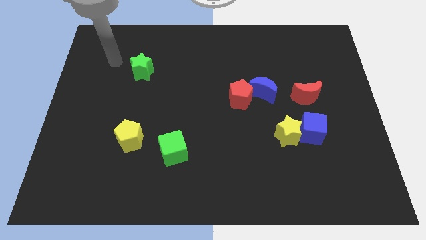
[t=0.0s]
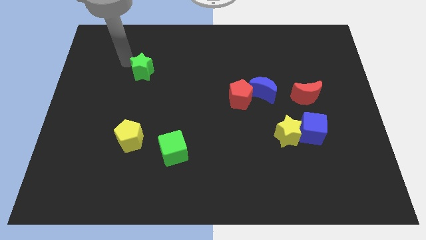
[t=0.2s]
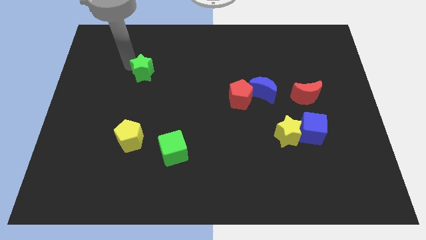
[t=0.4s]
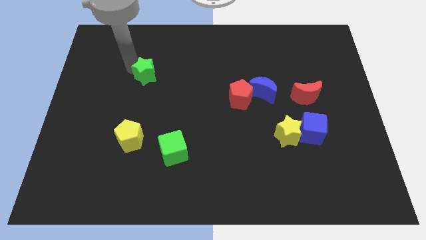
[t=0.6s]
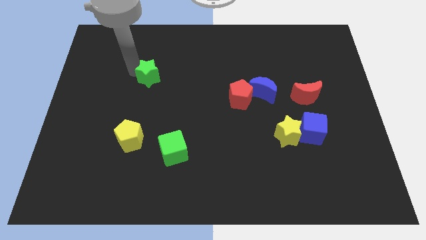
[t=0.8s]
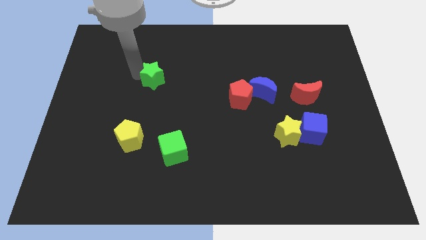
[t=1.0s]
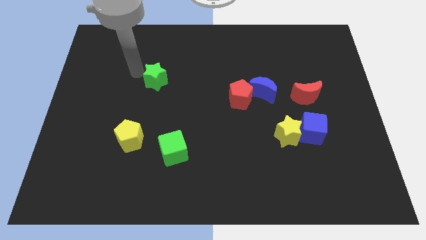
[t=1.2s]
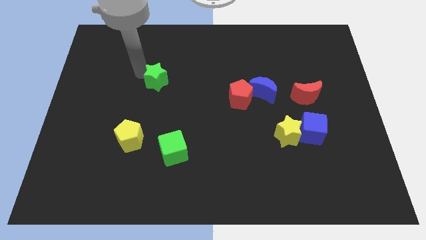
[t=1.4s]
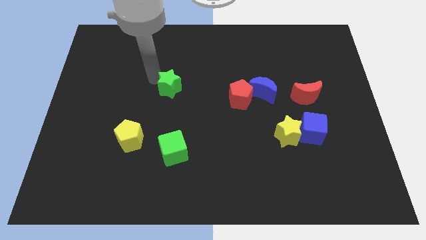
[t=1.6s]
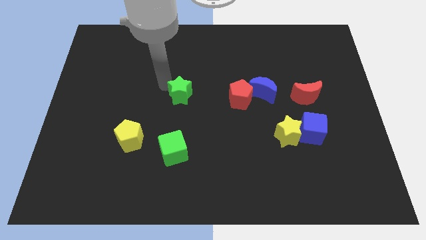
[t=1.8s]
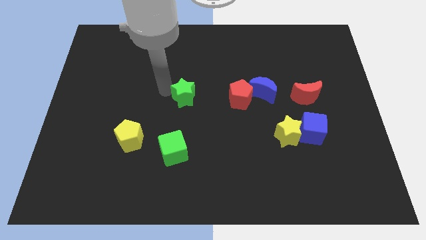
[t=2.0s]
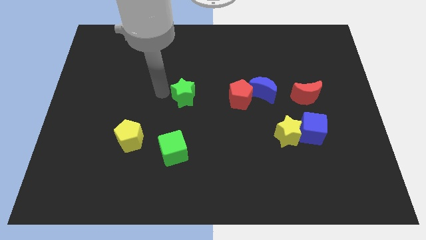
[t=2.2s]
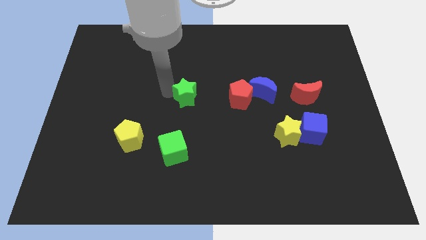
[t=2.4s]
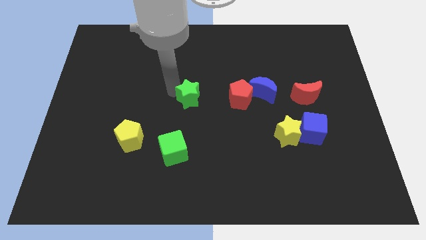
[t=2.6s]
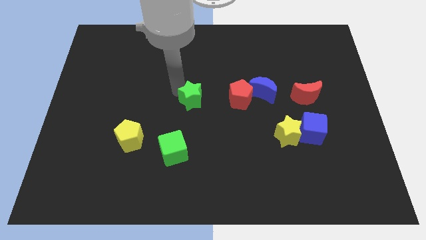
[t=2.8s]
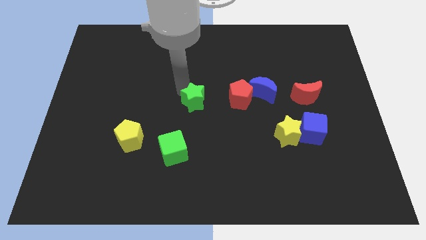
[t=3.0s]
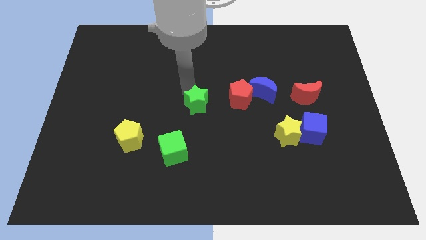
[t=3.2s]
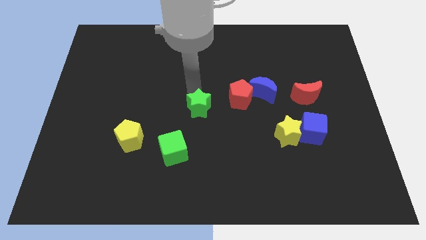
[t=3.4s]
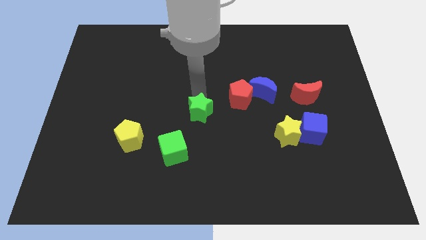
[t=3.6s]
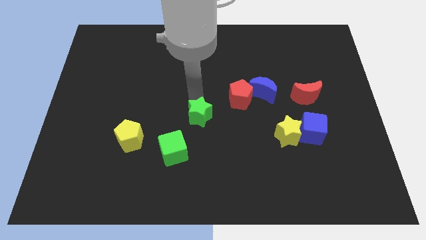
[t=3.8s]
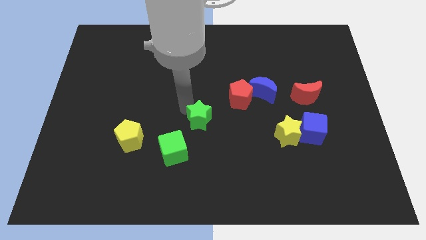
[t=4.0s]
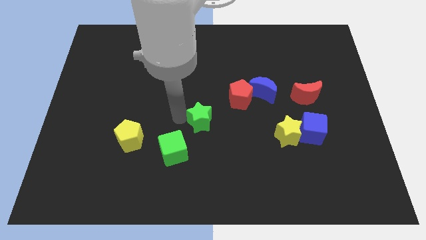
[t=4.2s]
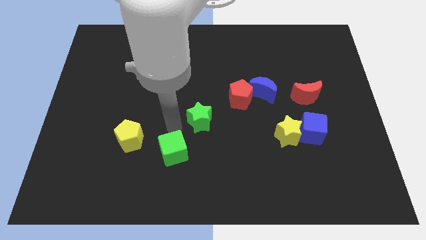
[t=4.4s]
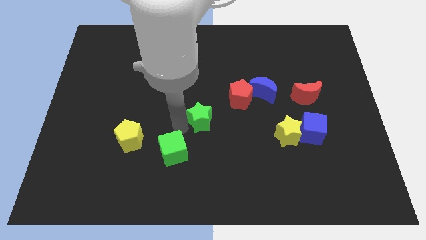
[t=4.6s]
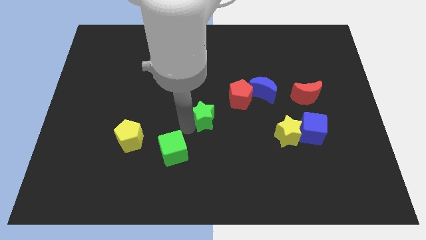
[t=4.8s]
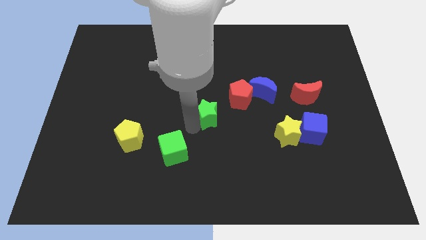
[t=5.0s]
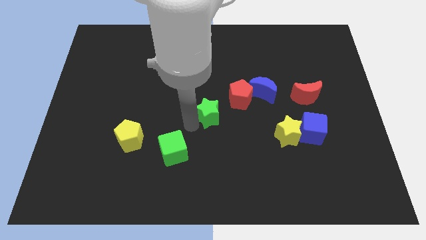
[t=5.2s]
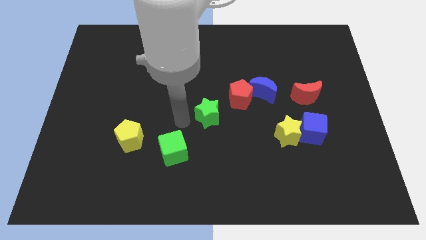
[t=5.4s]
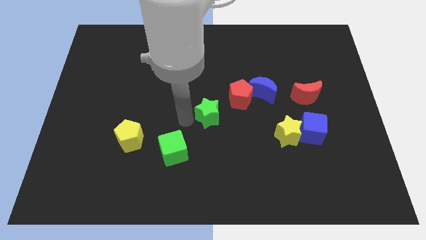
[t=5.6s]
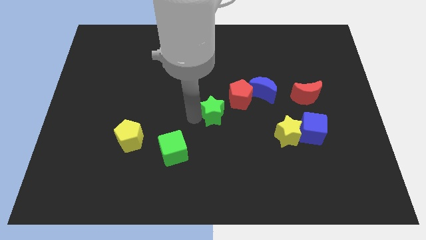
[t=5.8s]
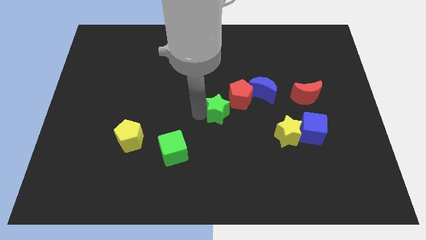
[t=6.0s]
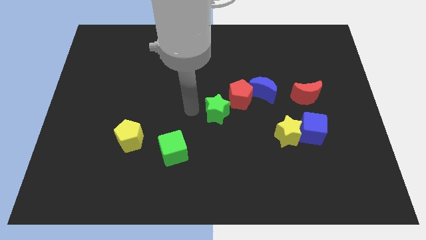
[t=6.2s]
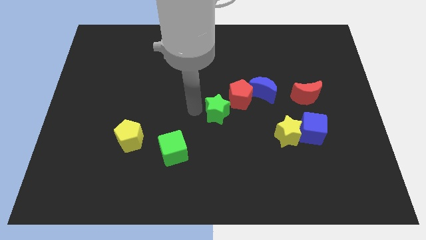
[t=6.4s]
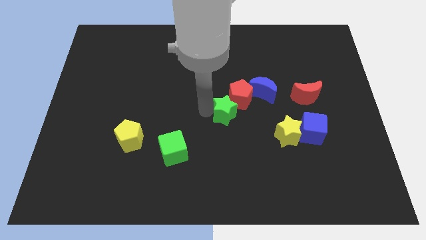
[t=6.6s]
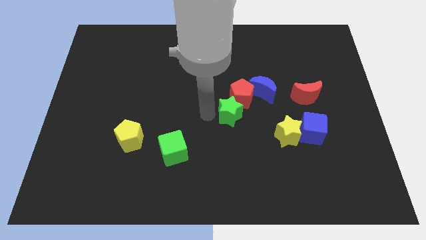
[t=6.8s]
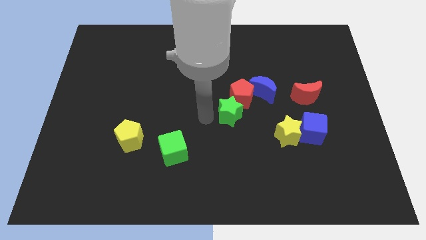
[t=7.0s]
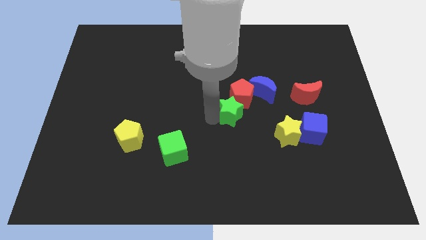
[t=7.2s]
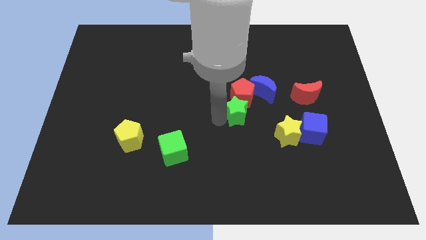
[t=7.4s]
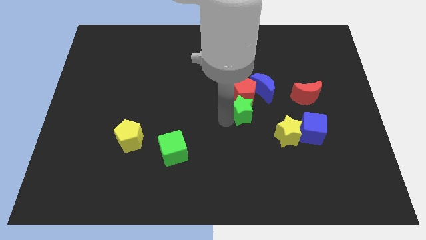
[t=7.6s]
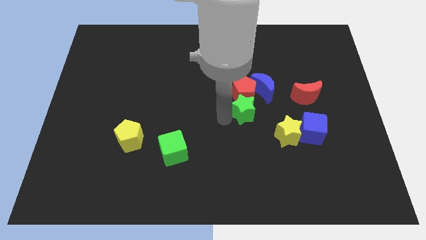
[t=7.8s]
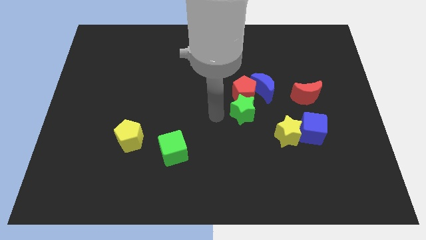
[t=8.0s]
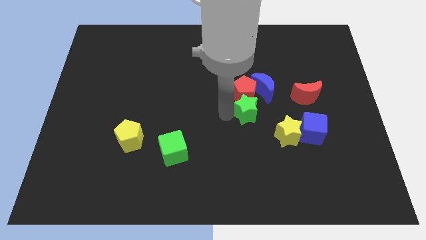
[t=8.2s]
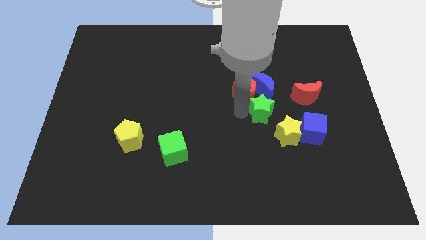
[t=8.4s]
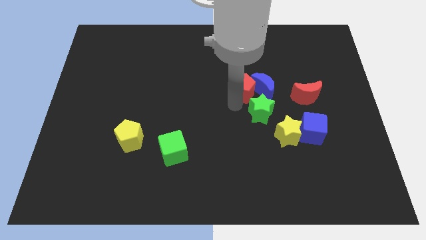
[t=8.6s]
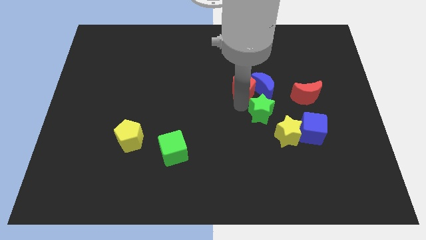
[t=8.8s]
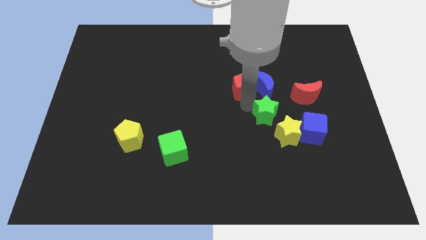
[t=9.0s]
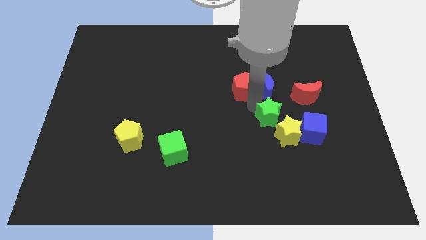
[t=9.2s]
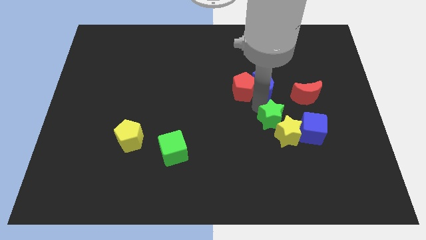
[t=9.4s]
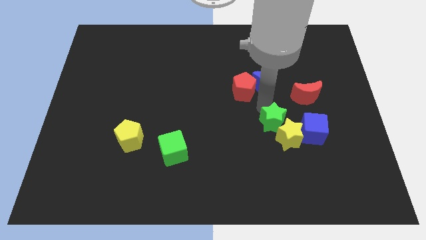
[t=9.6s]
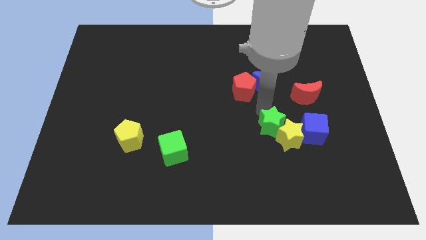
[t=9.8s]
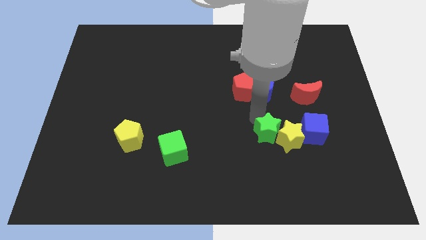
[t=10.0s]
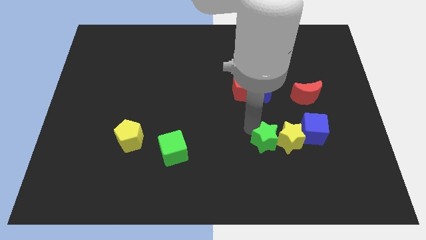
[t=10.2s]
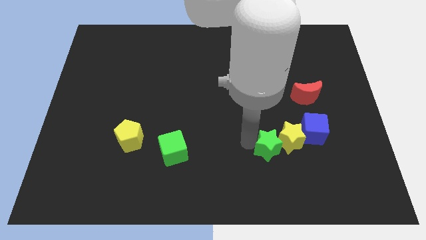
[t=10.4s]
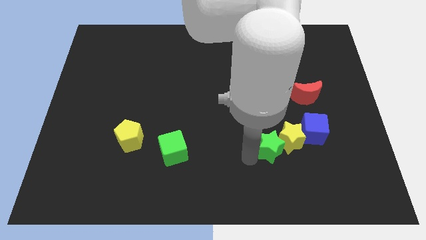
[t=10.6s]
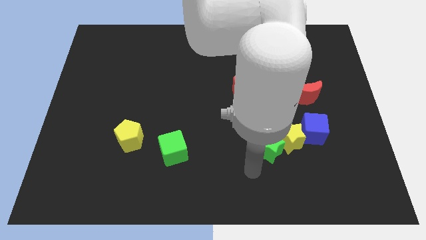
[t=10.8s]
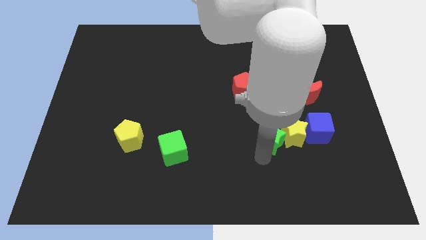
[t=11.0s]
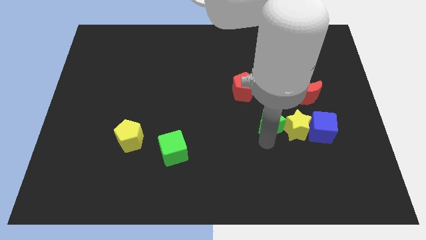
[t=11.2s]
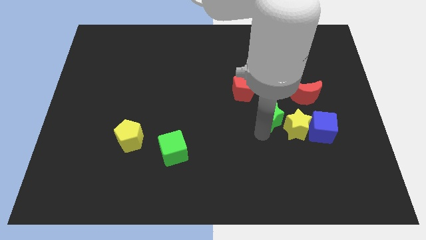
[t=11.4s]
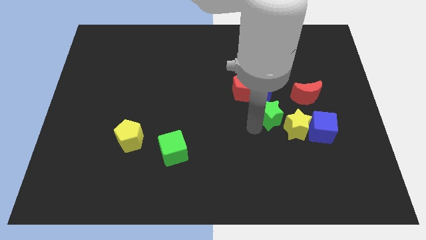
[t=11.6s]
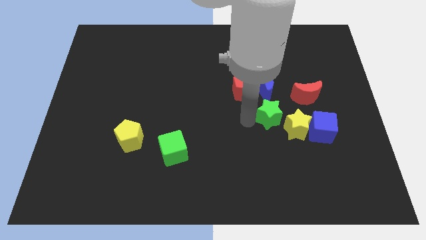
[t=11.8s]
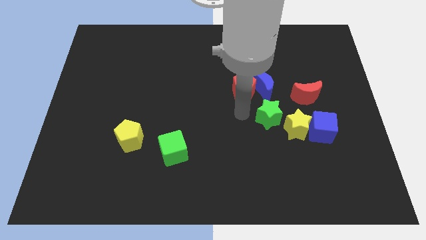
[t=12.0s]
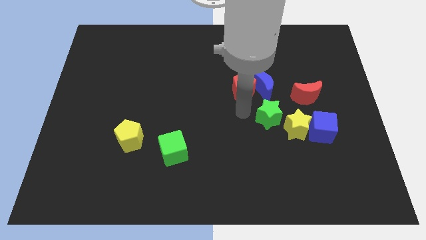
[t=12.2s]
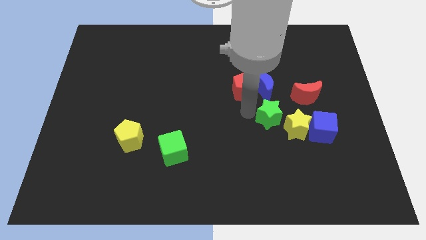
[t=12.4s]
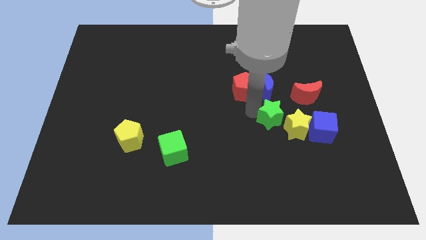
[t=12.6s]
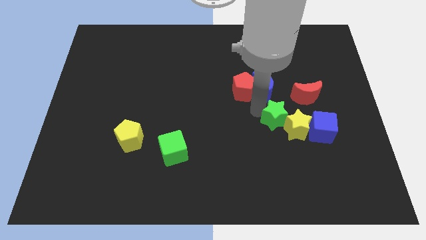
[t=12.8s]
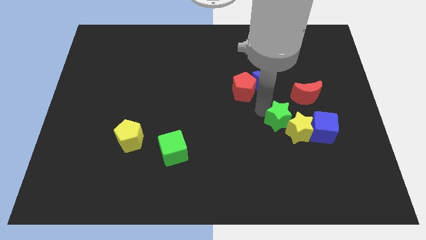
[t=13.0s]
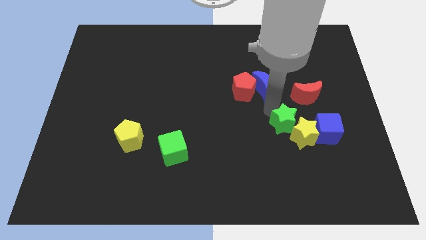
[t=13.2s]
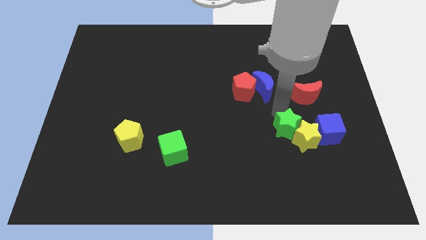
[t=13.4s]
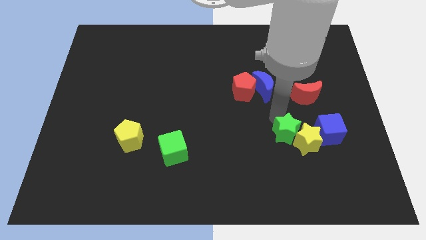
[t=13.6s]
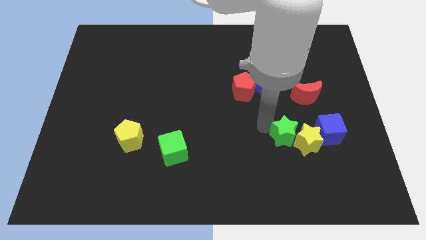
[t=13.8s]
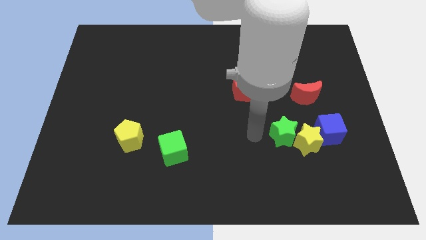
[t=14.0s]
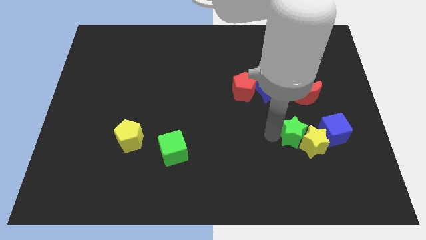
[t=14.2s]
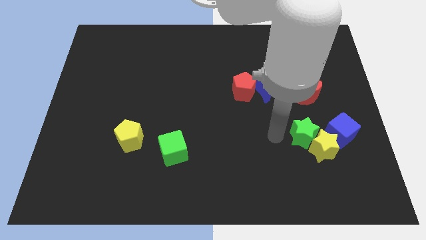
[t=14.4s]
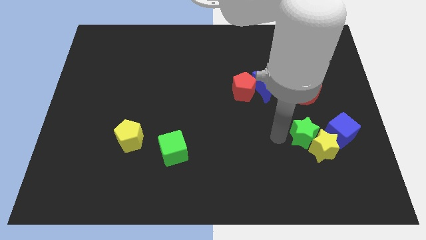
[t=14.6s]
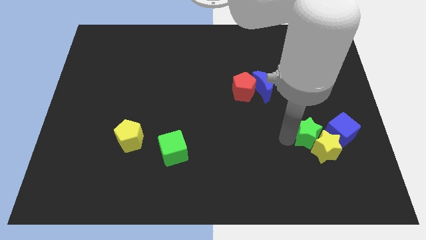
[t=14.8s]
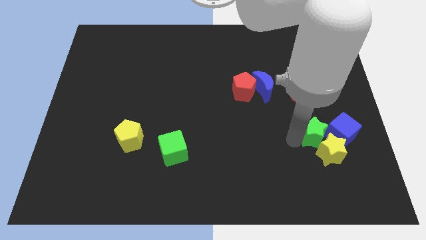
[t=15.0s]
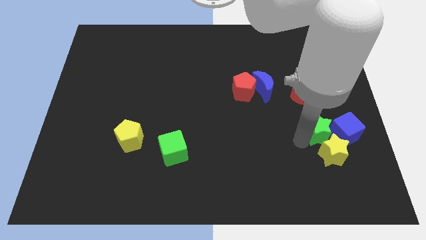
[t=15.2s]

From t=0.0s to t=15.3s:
move the green star towards the blue cube
